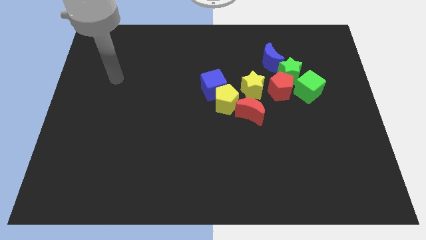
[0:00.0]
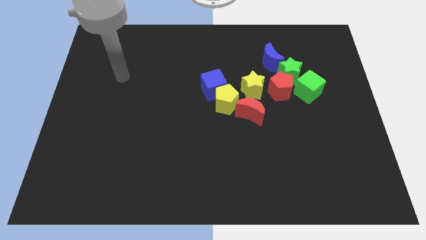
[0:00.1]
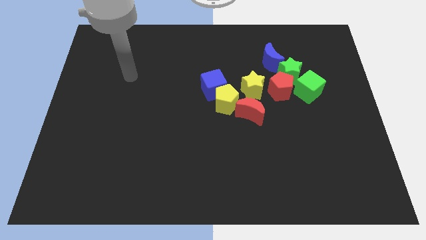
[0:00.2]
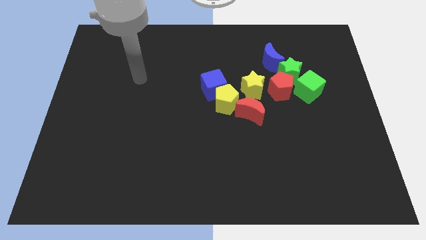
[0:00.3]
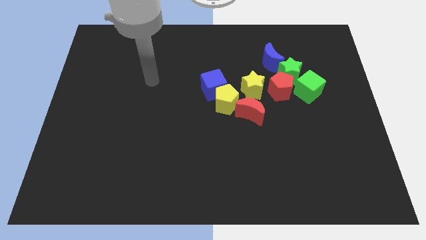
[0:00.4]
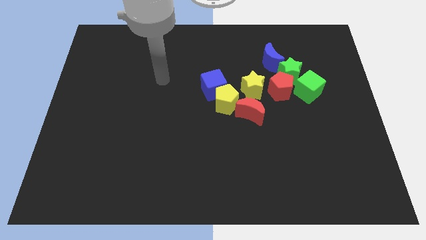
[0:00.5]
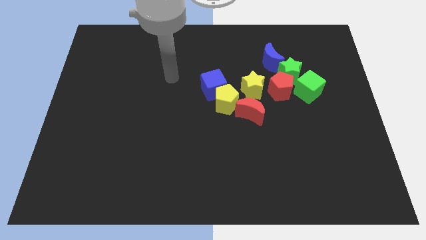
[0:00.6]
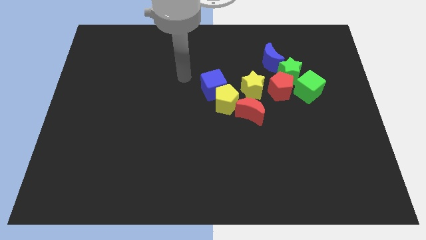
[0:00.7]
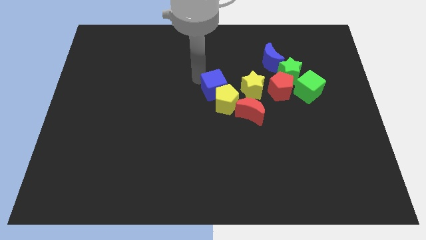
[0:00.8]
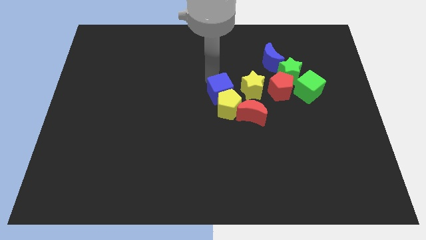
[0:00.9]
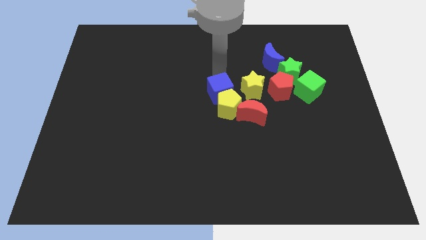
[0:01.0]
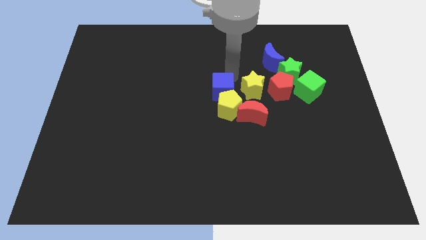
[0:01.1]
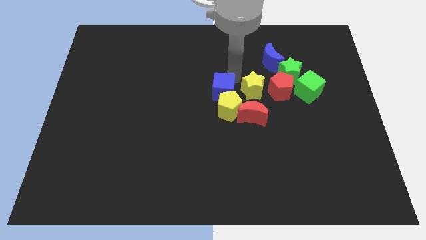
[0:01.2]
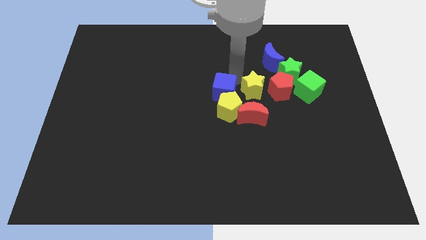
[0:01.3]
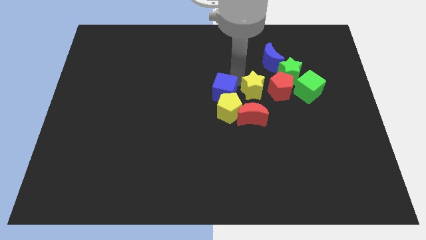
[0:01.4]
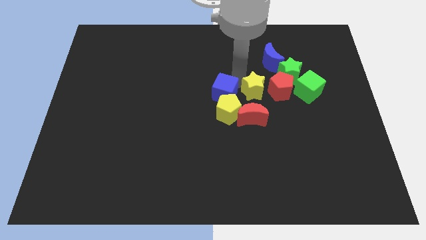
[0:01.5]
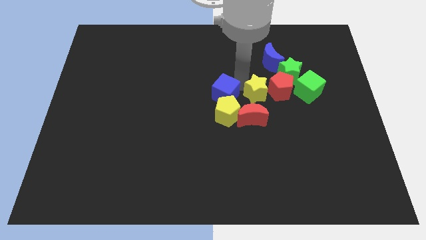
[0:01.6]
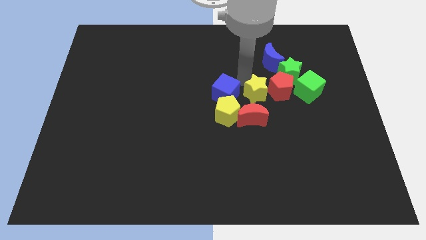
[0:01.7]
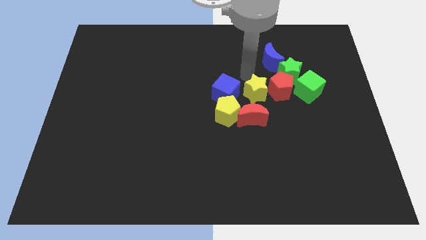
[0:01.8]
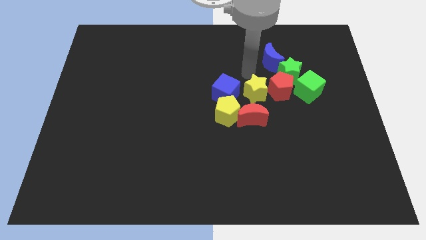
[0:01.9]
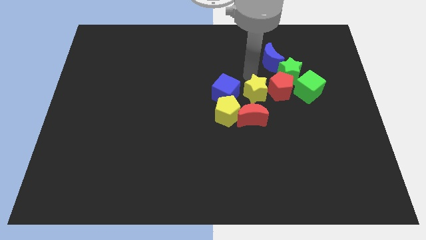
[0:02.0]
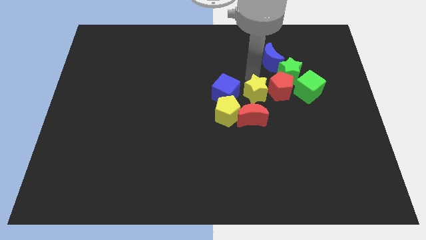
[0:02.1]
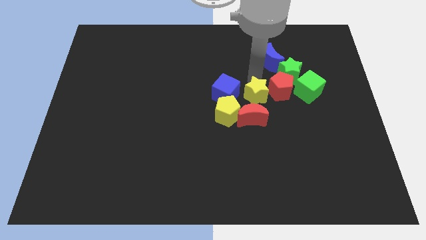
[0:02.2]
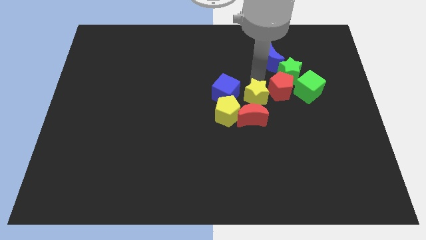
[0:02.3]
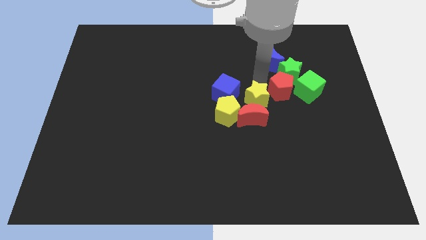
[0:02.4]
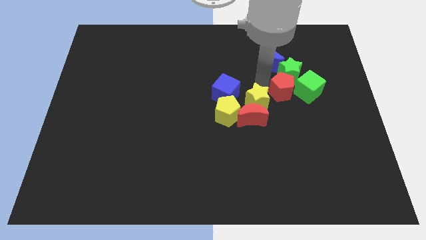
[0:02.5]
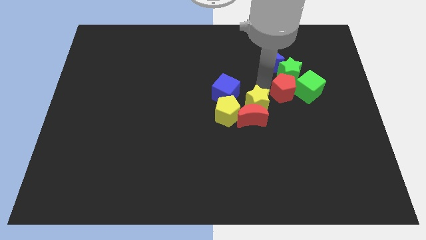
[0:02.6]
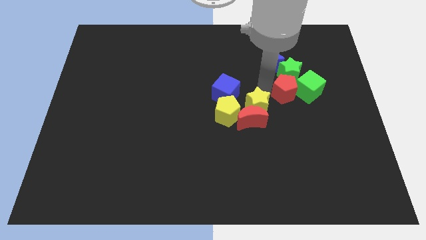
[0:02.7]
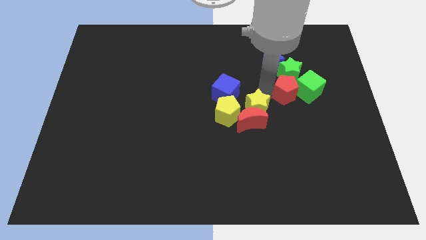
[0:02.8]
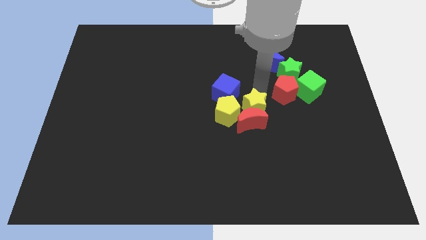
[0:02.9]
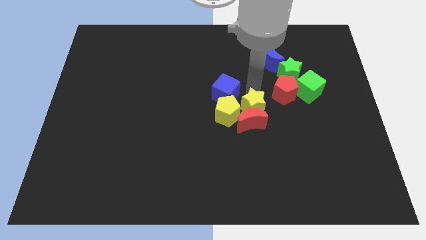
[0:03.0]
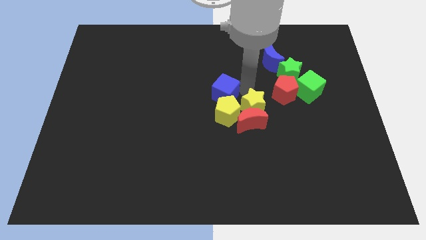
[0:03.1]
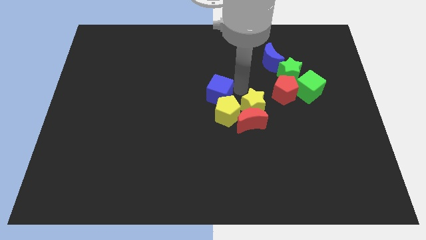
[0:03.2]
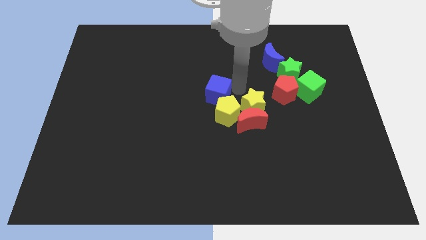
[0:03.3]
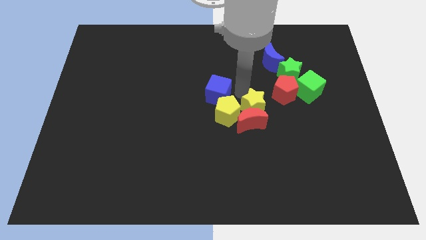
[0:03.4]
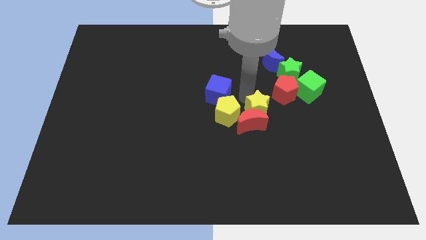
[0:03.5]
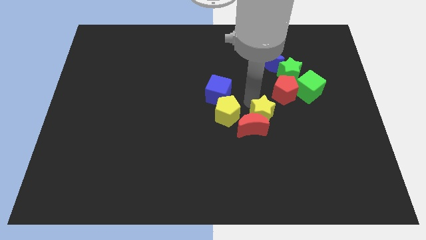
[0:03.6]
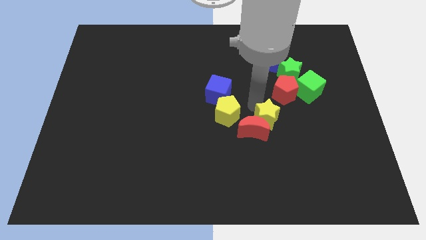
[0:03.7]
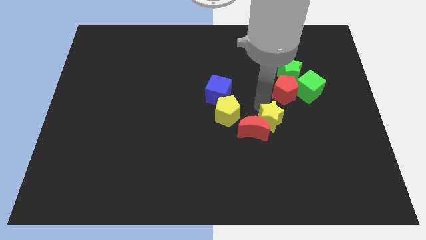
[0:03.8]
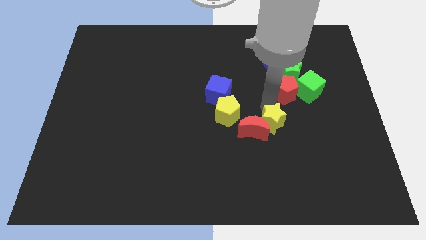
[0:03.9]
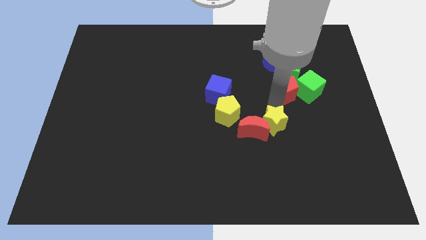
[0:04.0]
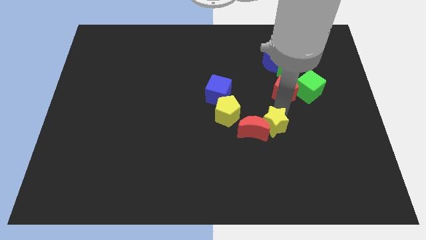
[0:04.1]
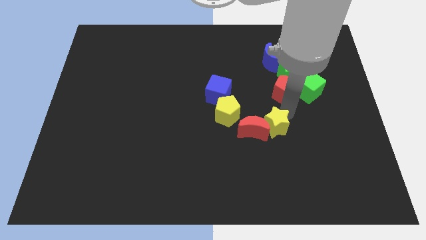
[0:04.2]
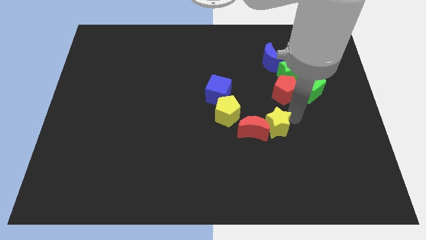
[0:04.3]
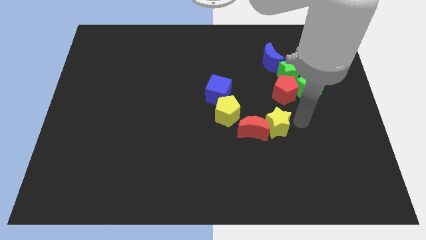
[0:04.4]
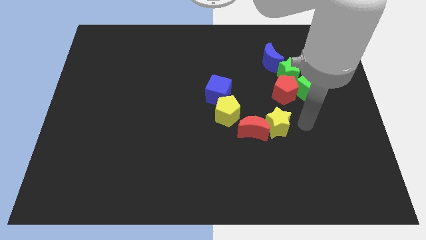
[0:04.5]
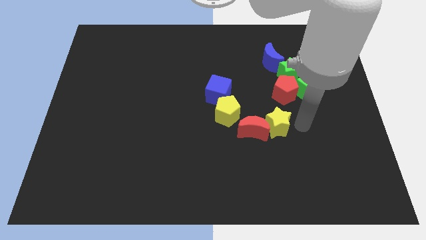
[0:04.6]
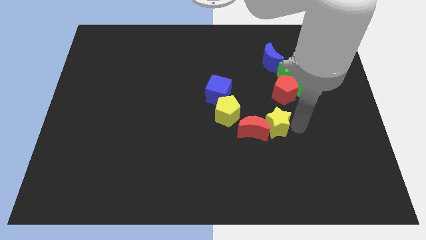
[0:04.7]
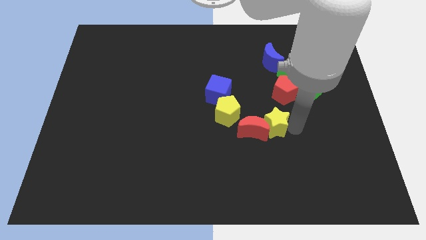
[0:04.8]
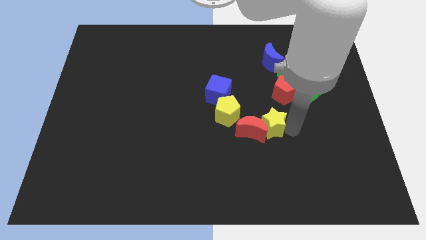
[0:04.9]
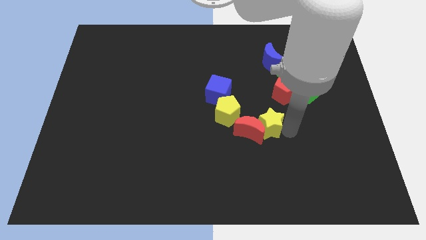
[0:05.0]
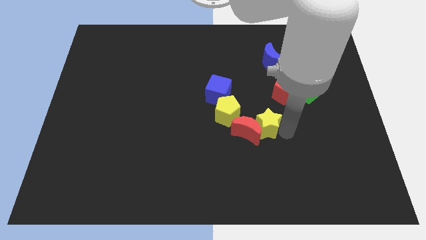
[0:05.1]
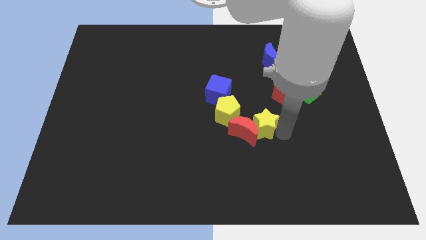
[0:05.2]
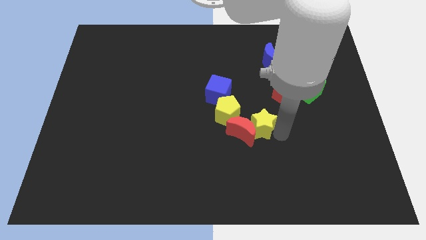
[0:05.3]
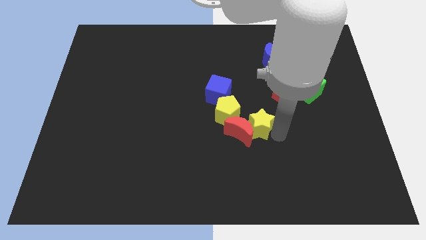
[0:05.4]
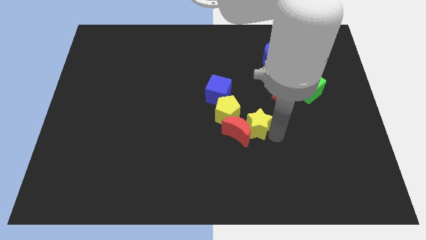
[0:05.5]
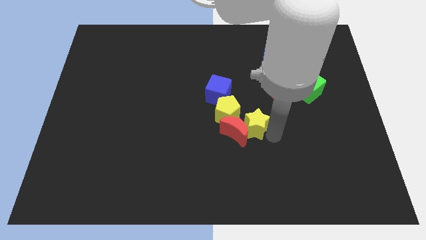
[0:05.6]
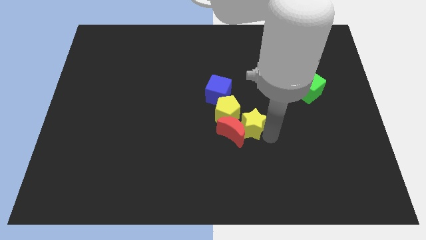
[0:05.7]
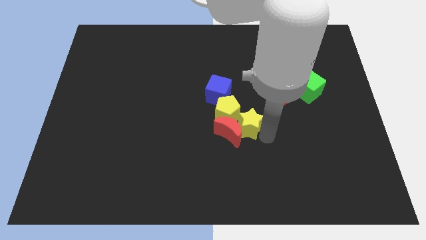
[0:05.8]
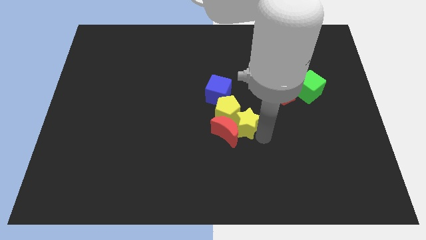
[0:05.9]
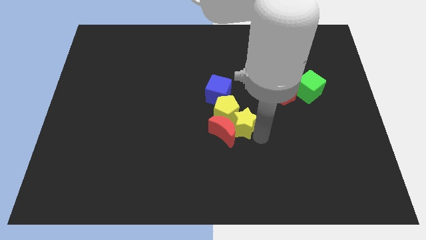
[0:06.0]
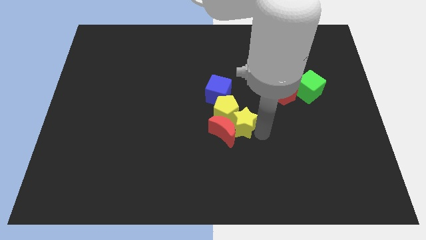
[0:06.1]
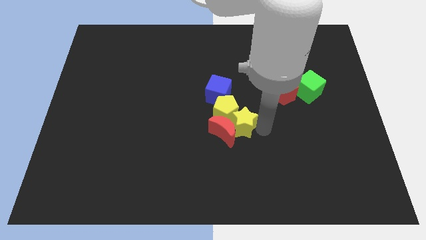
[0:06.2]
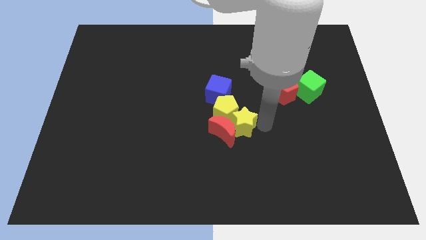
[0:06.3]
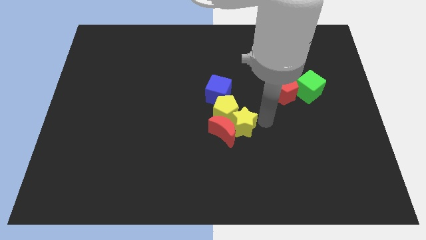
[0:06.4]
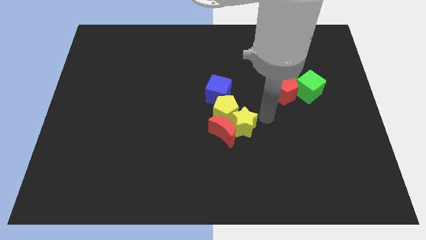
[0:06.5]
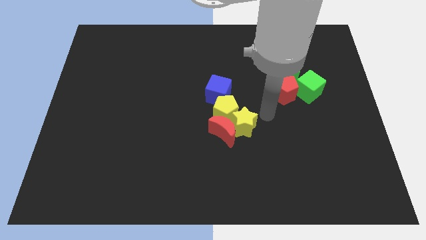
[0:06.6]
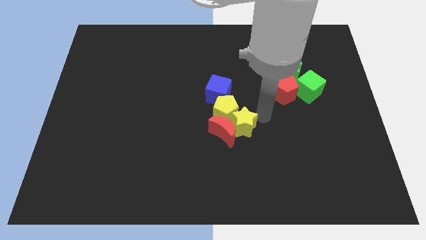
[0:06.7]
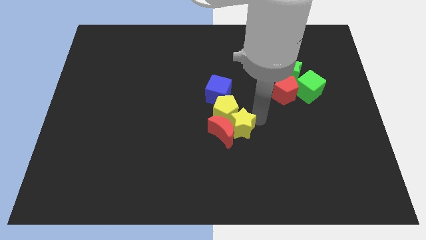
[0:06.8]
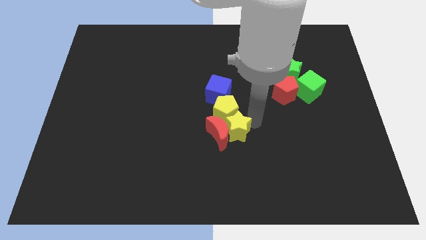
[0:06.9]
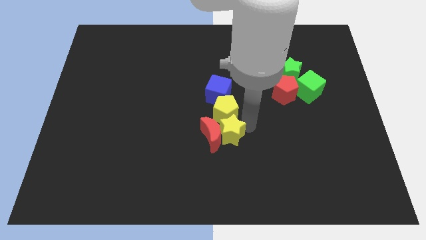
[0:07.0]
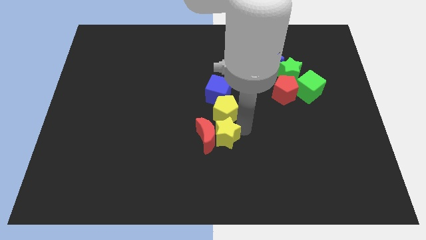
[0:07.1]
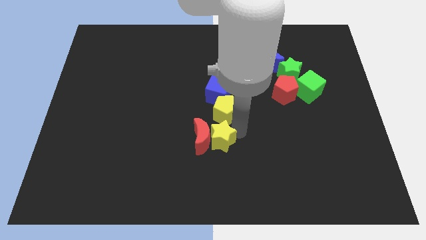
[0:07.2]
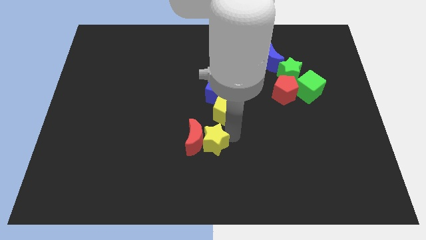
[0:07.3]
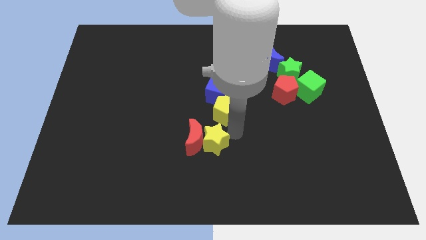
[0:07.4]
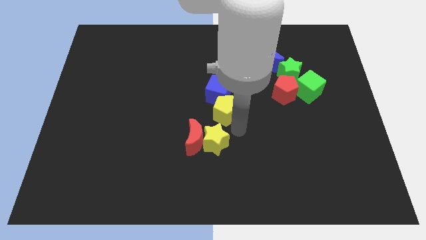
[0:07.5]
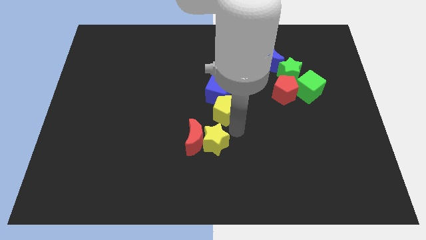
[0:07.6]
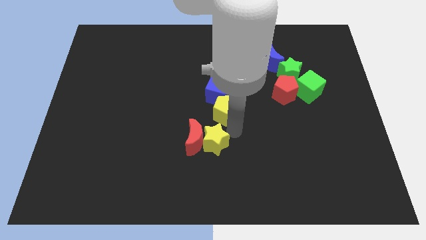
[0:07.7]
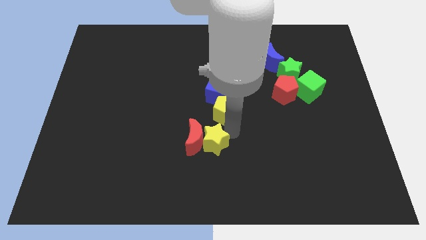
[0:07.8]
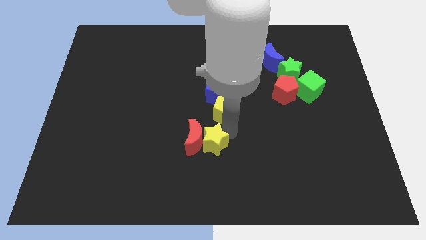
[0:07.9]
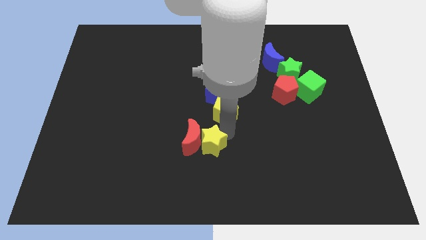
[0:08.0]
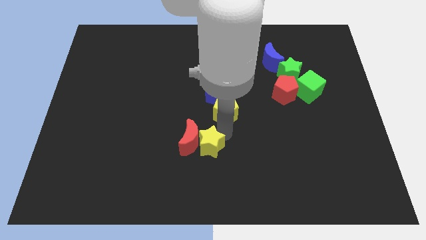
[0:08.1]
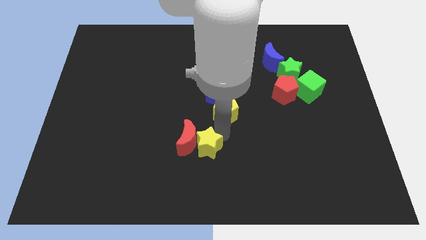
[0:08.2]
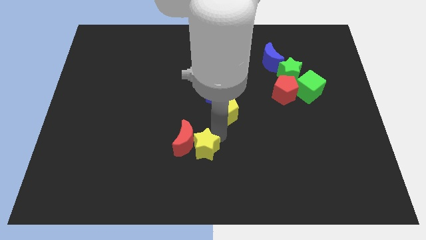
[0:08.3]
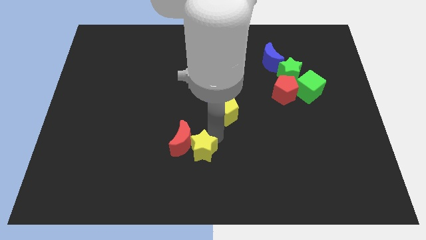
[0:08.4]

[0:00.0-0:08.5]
slide the yellow star down and then left
